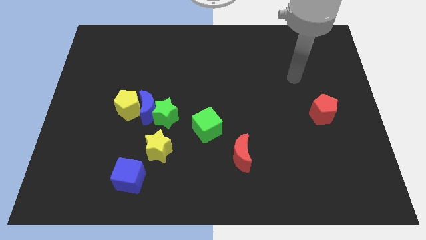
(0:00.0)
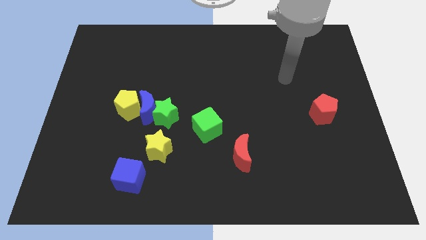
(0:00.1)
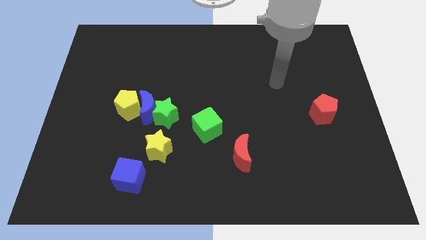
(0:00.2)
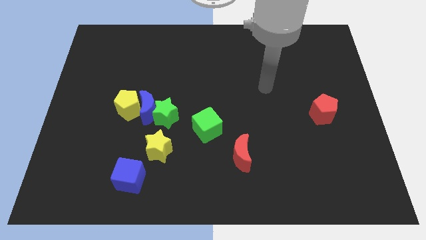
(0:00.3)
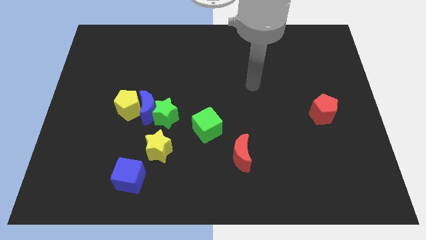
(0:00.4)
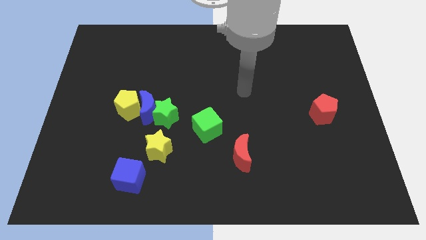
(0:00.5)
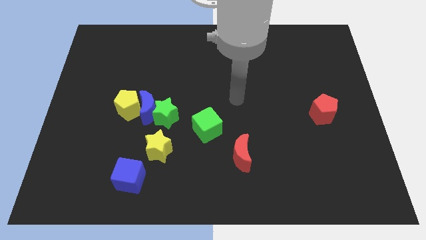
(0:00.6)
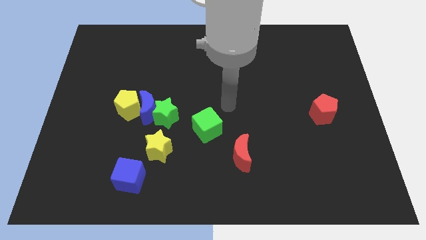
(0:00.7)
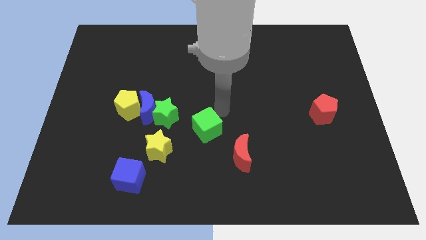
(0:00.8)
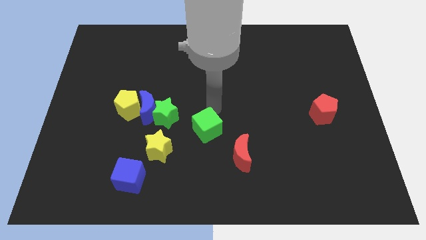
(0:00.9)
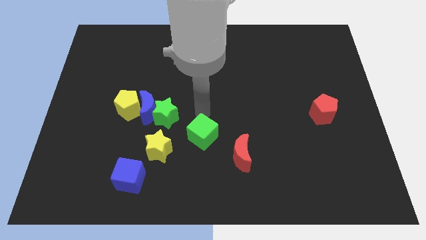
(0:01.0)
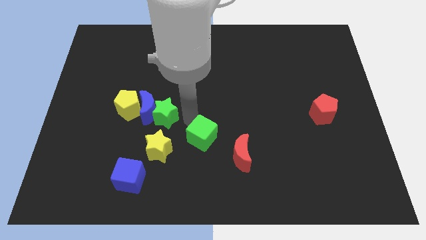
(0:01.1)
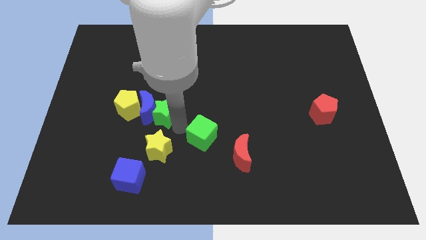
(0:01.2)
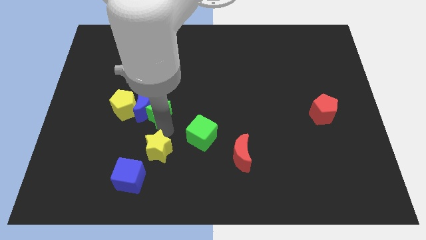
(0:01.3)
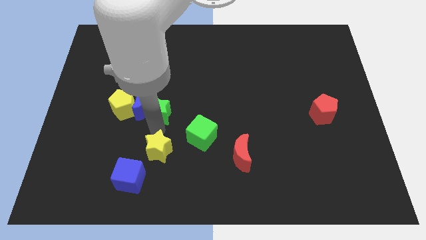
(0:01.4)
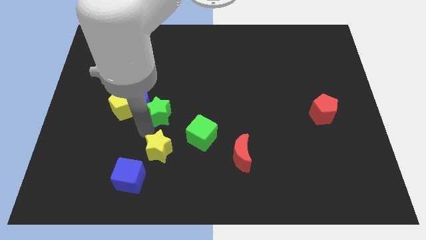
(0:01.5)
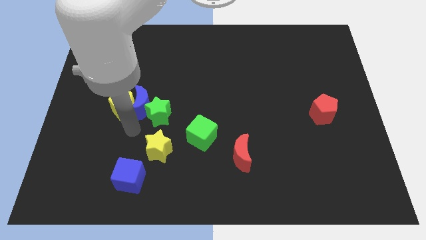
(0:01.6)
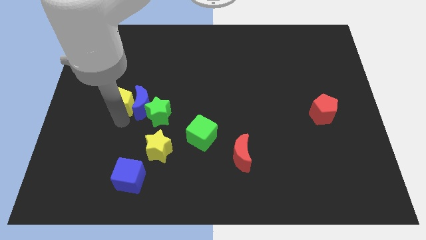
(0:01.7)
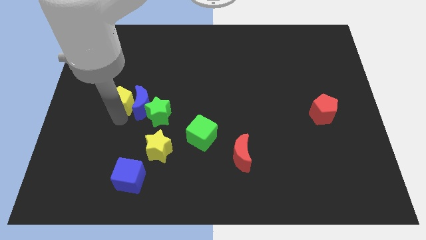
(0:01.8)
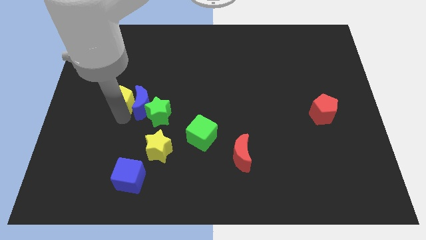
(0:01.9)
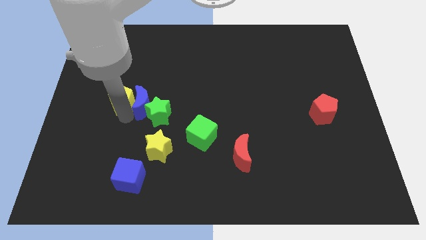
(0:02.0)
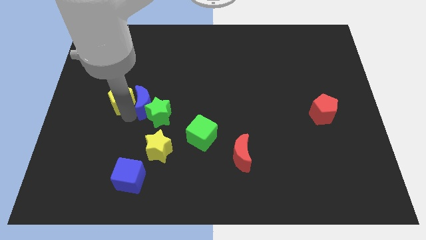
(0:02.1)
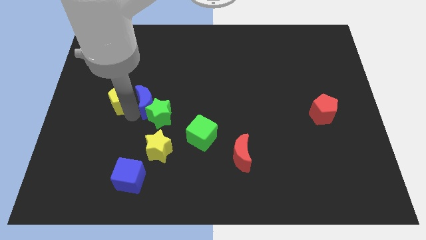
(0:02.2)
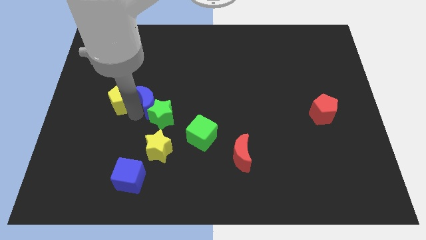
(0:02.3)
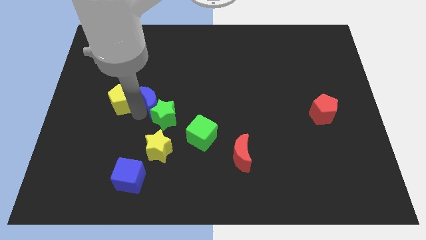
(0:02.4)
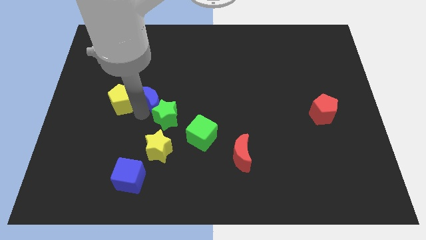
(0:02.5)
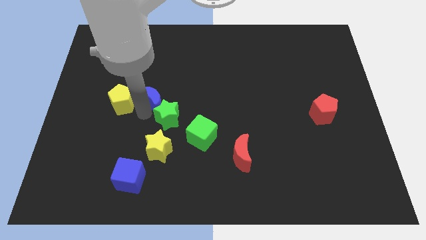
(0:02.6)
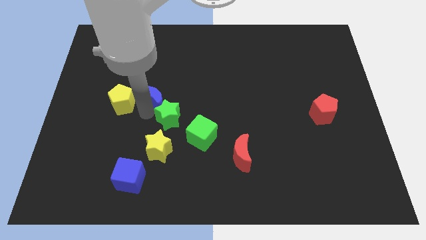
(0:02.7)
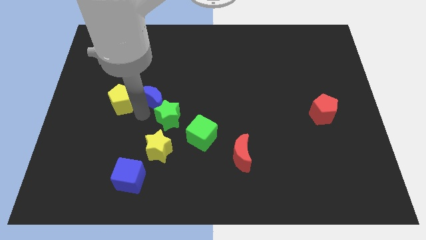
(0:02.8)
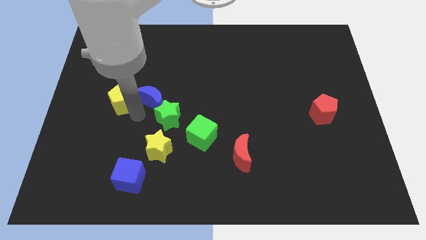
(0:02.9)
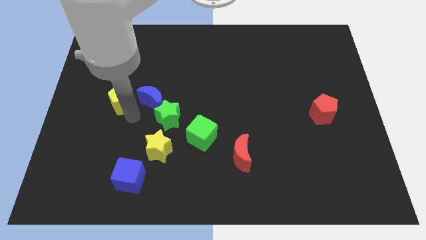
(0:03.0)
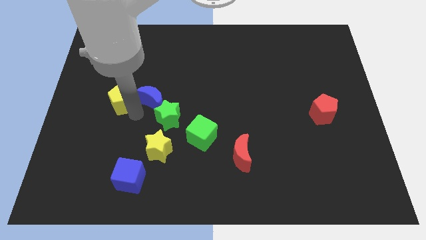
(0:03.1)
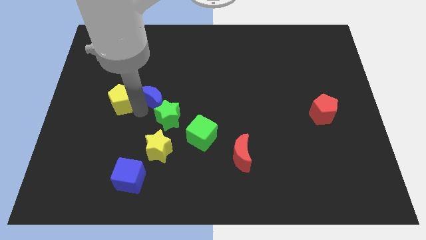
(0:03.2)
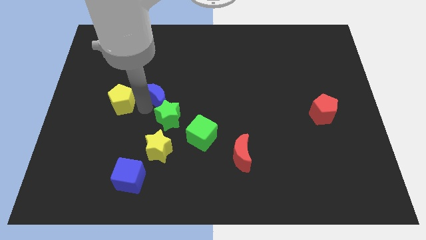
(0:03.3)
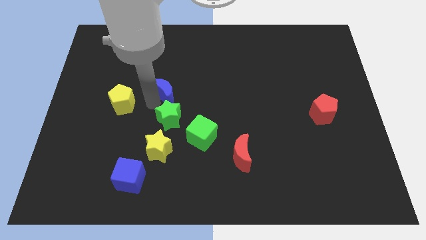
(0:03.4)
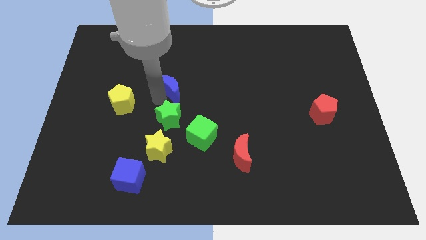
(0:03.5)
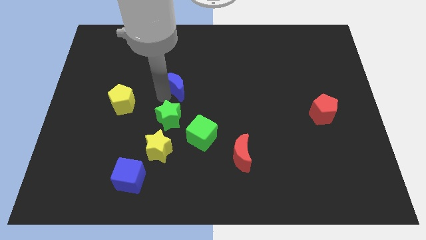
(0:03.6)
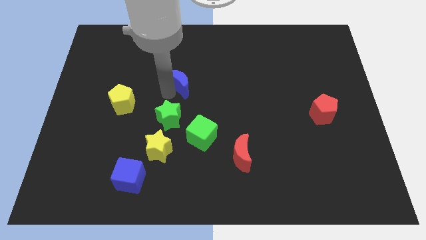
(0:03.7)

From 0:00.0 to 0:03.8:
pull the blue moon apart from the green star and yellow pentagon

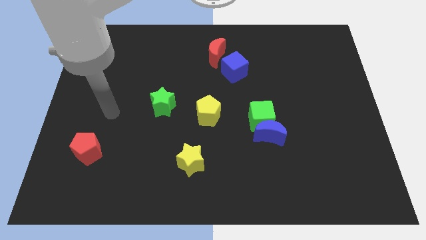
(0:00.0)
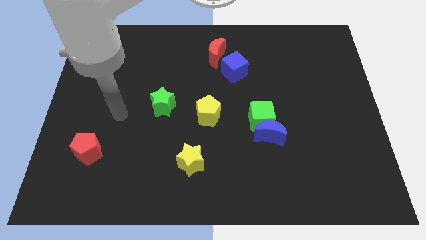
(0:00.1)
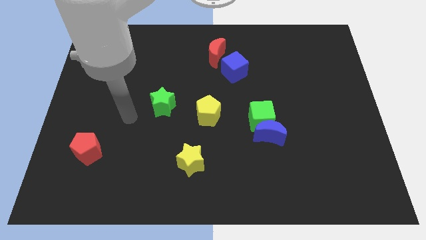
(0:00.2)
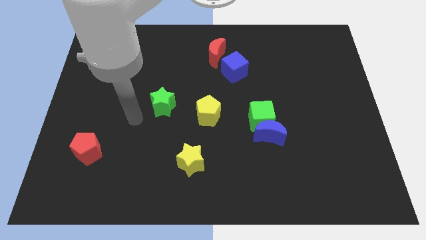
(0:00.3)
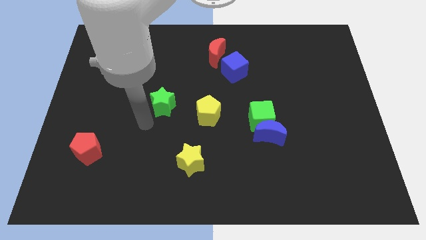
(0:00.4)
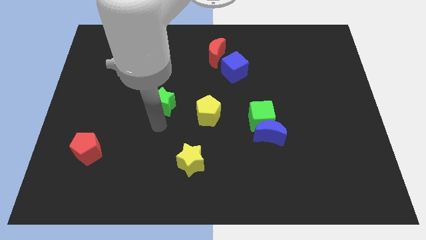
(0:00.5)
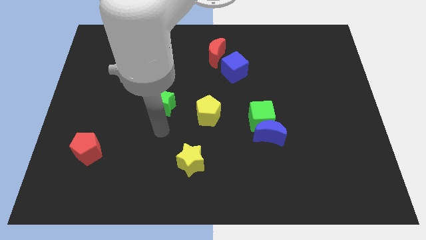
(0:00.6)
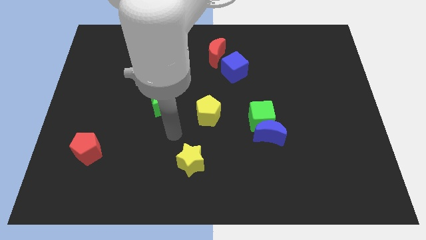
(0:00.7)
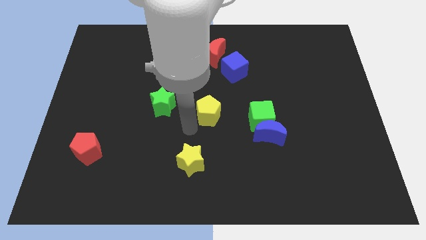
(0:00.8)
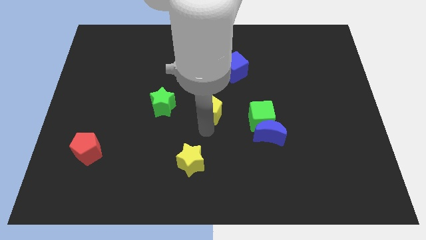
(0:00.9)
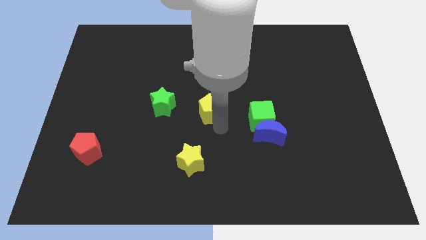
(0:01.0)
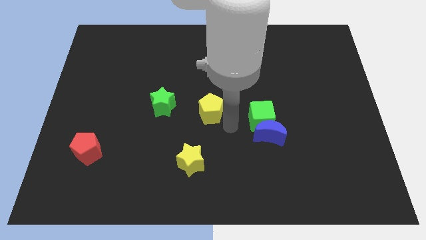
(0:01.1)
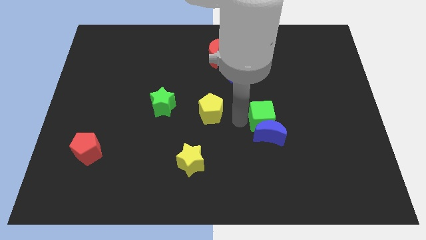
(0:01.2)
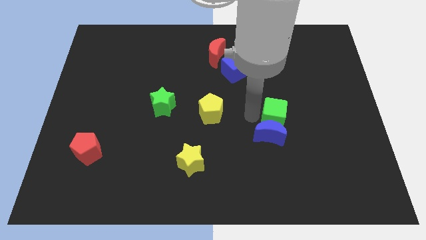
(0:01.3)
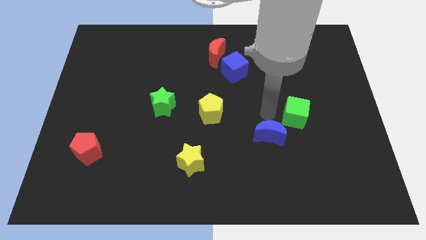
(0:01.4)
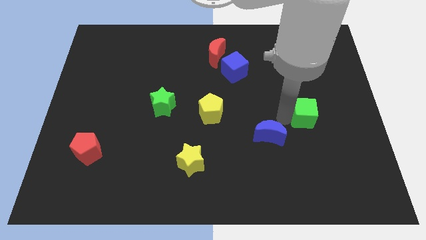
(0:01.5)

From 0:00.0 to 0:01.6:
pull the blue moon apart from the green cube

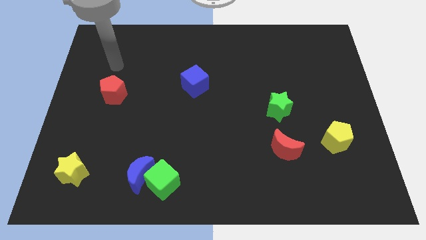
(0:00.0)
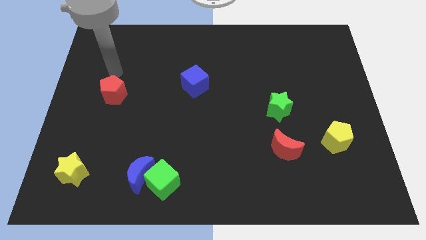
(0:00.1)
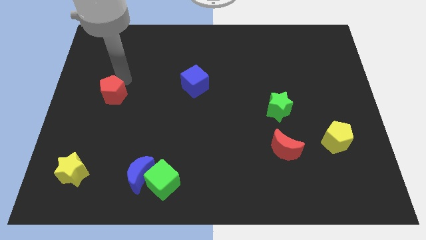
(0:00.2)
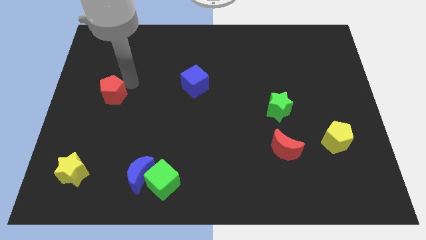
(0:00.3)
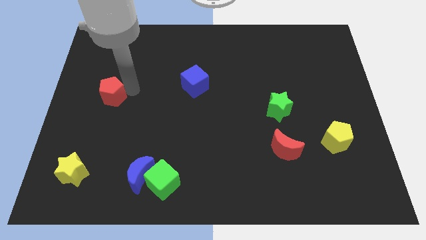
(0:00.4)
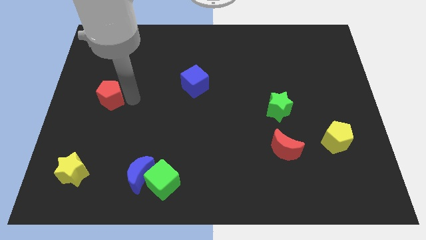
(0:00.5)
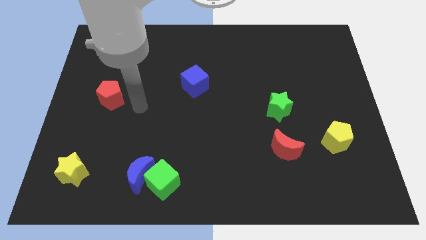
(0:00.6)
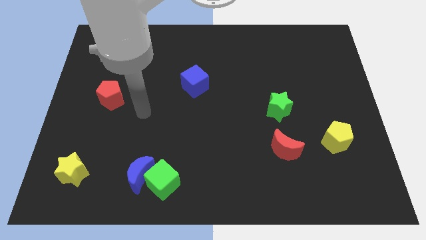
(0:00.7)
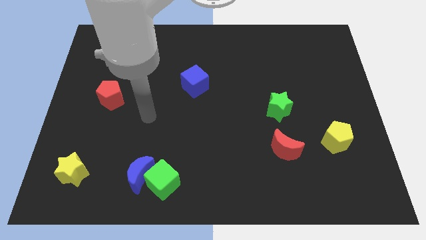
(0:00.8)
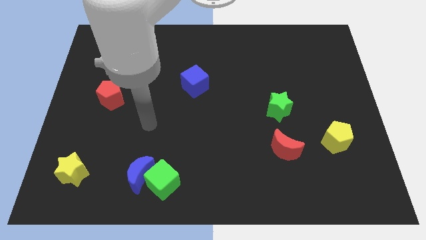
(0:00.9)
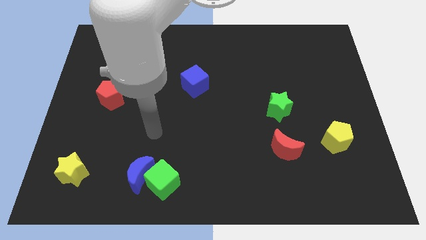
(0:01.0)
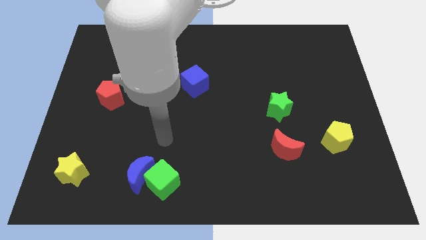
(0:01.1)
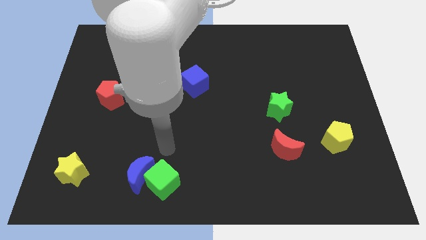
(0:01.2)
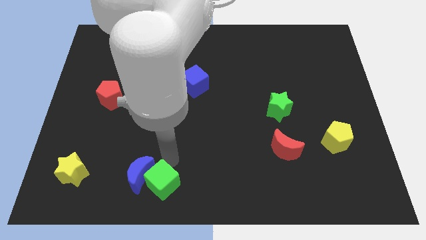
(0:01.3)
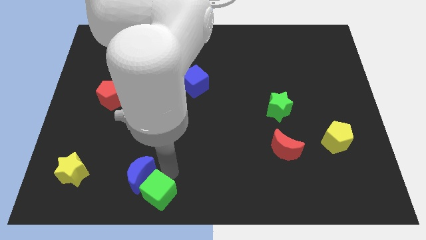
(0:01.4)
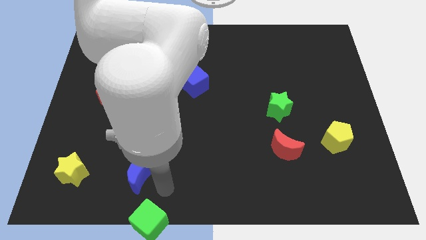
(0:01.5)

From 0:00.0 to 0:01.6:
separate the blue moon from the green cube

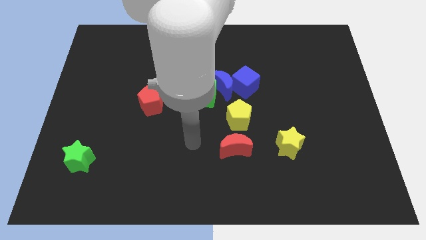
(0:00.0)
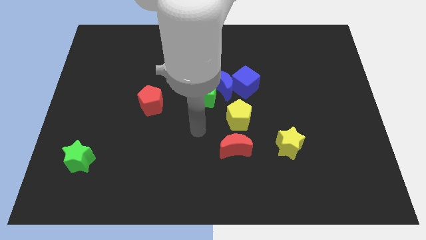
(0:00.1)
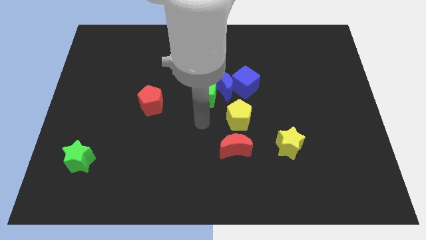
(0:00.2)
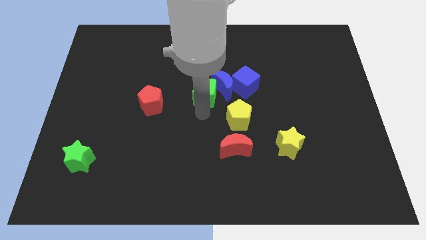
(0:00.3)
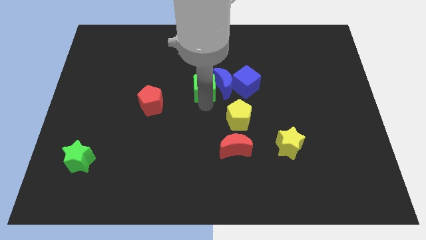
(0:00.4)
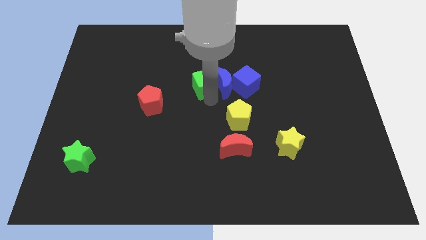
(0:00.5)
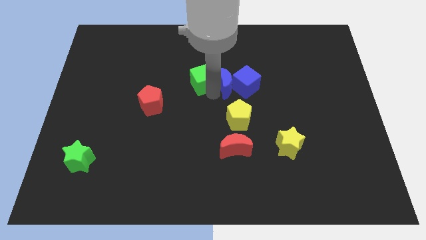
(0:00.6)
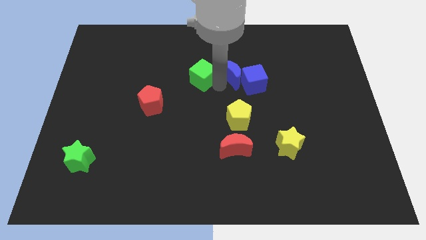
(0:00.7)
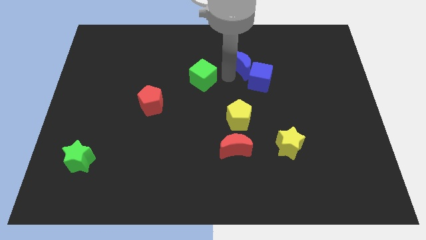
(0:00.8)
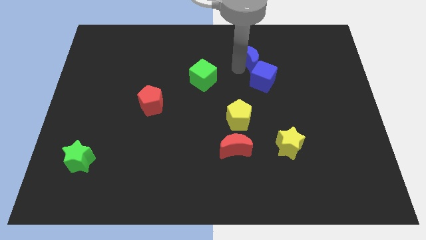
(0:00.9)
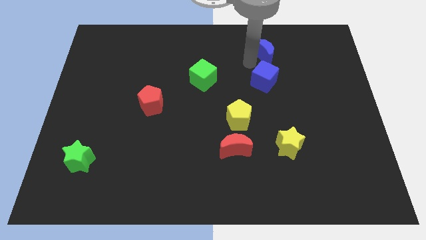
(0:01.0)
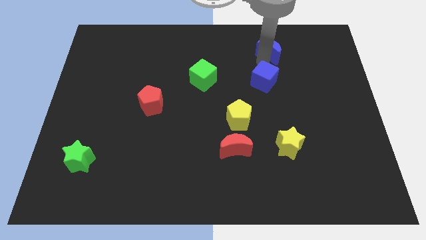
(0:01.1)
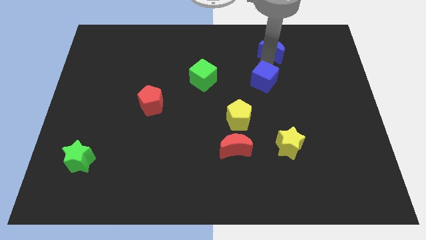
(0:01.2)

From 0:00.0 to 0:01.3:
move the blue cube away from the blue moon

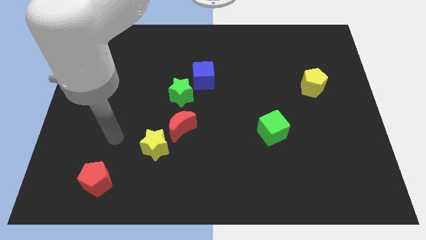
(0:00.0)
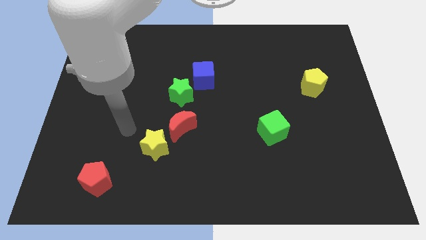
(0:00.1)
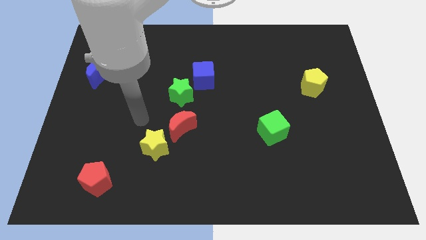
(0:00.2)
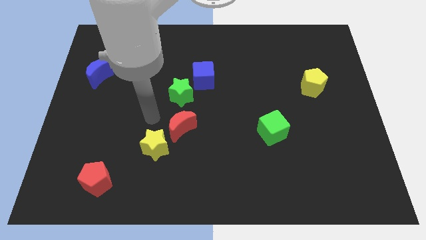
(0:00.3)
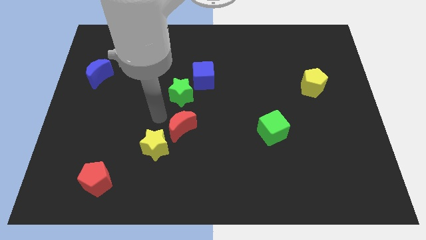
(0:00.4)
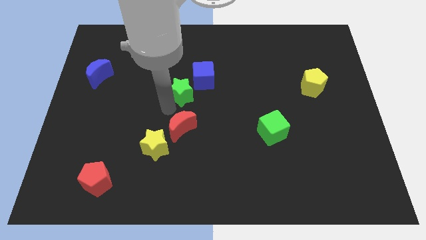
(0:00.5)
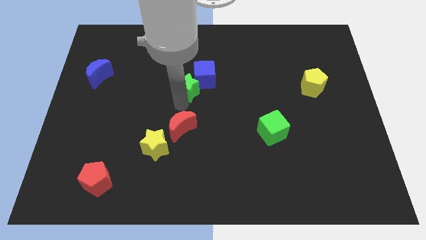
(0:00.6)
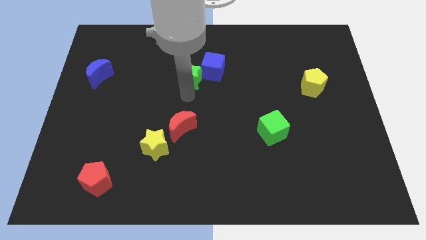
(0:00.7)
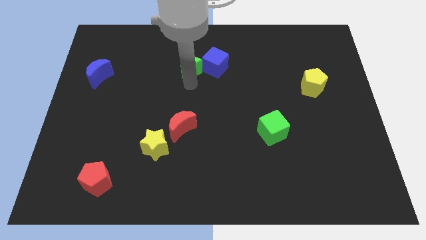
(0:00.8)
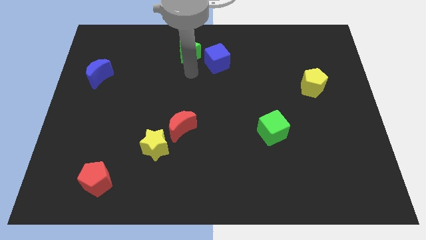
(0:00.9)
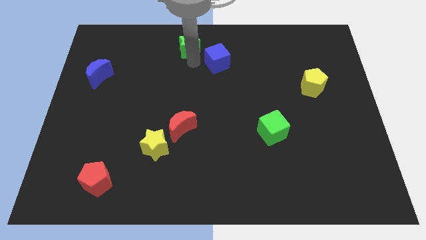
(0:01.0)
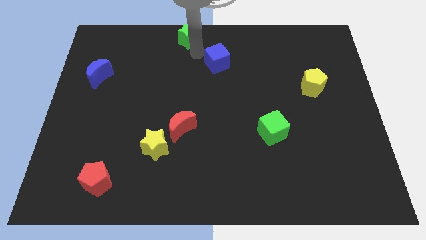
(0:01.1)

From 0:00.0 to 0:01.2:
pull the blue cube apart from the green star
